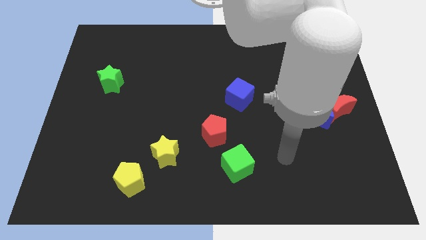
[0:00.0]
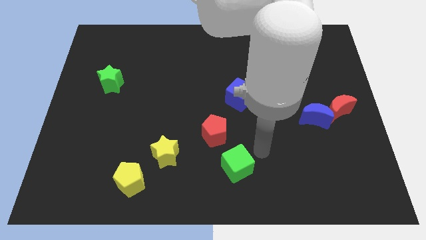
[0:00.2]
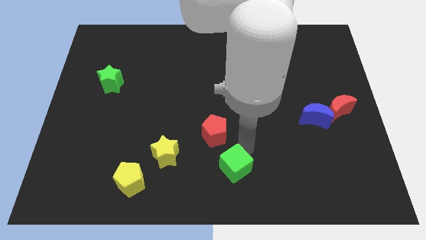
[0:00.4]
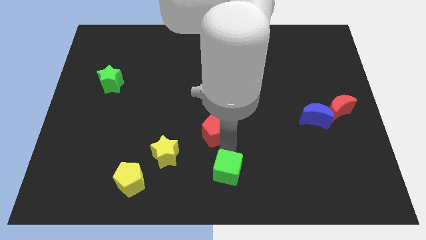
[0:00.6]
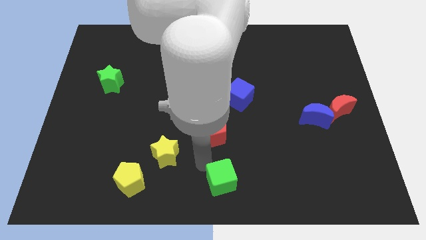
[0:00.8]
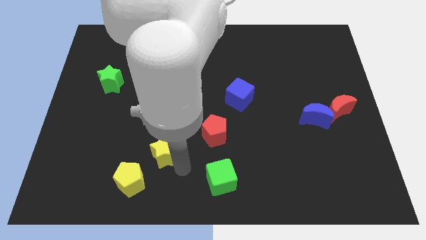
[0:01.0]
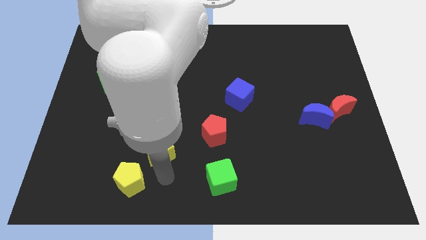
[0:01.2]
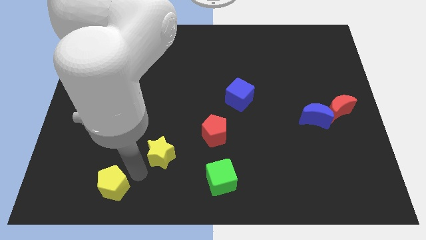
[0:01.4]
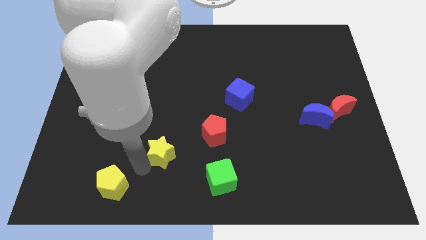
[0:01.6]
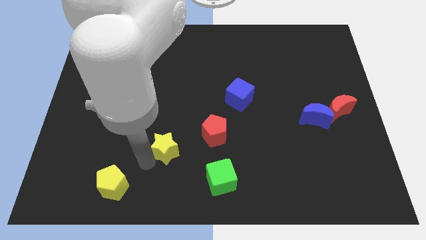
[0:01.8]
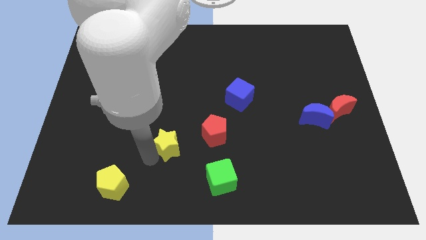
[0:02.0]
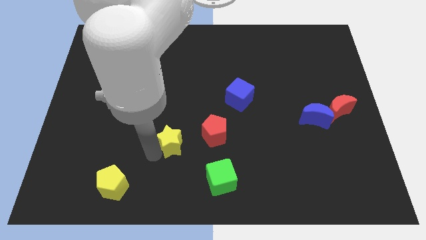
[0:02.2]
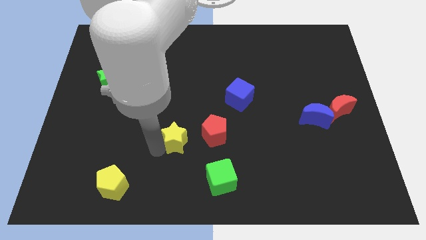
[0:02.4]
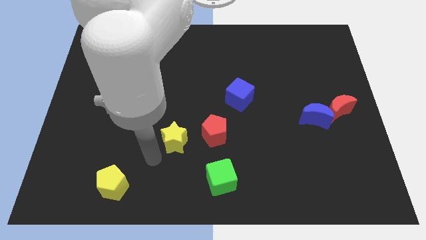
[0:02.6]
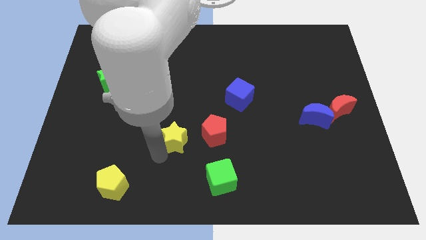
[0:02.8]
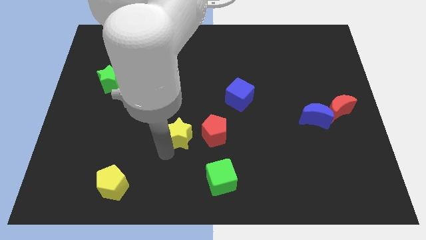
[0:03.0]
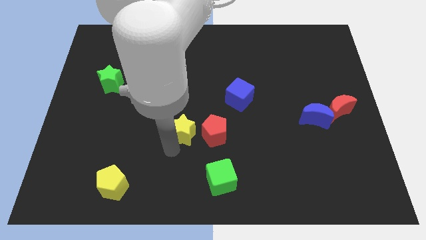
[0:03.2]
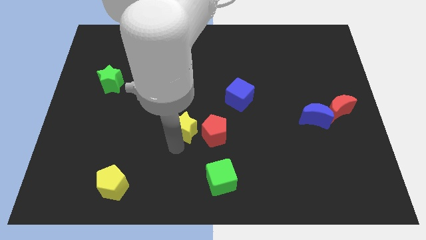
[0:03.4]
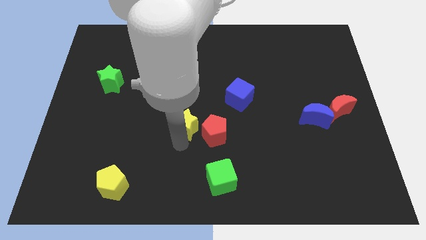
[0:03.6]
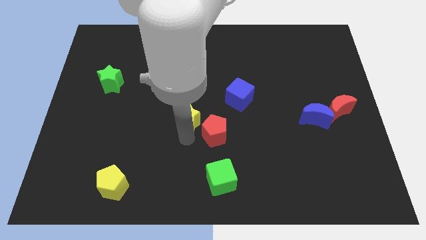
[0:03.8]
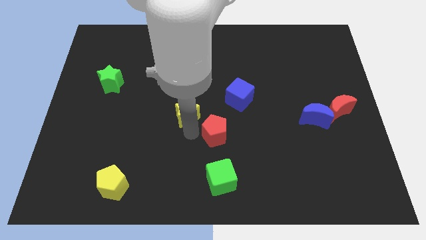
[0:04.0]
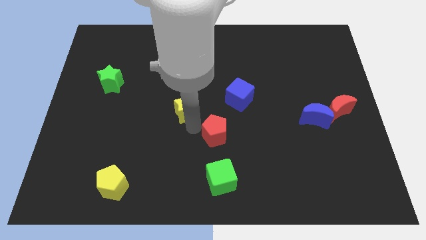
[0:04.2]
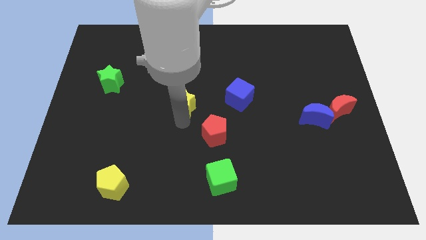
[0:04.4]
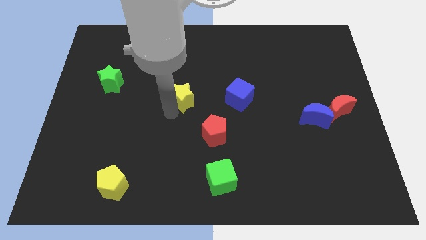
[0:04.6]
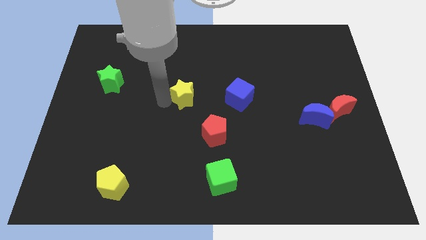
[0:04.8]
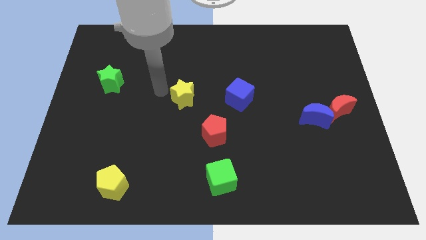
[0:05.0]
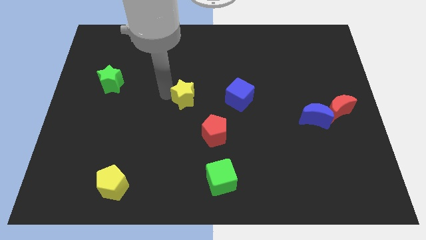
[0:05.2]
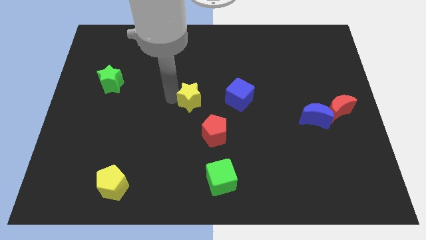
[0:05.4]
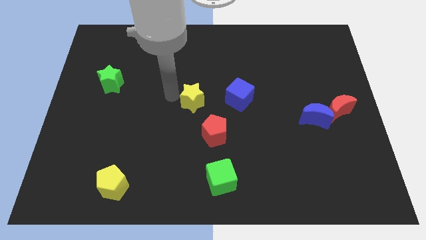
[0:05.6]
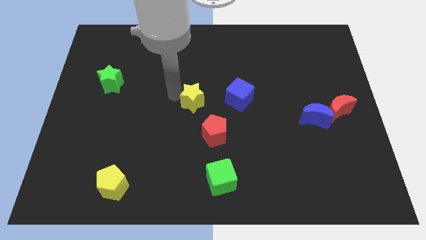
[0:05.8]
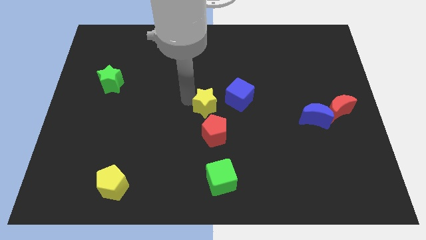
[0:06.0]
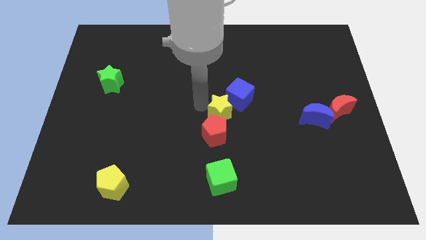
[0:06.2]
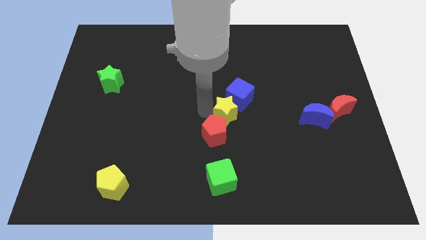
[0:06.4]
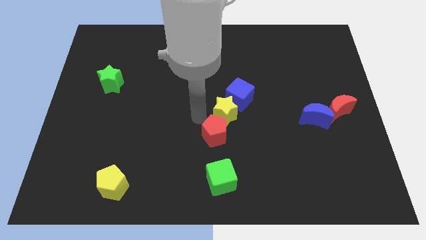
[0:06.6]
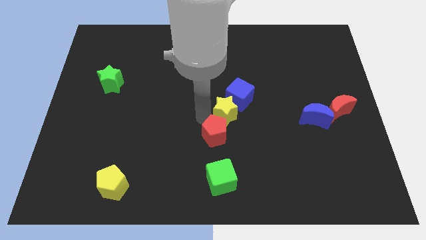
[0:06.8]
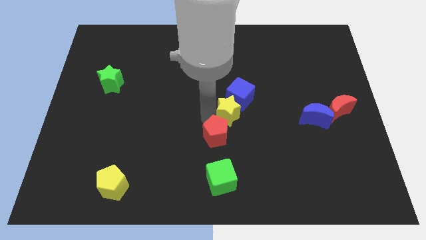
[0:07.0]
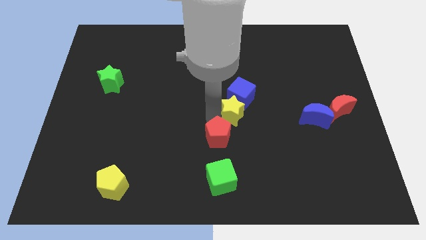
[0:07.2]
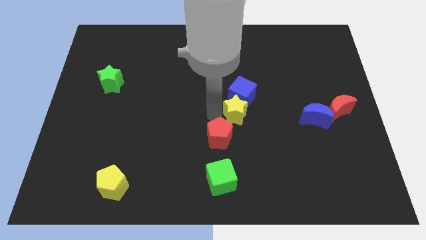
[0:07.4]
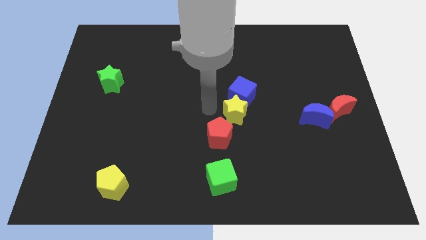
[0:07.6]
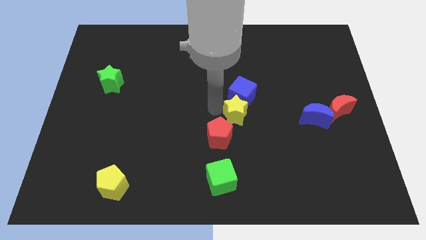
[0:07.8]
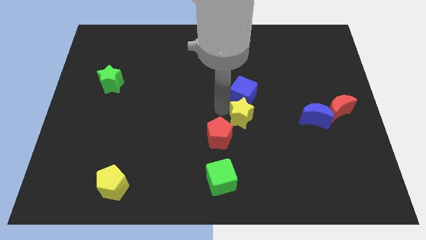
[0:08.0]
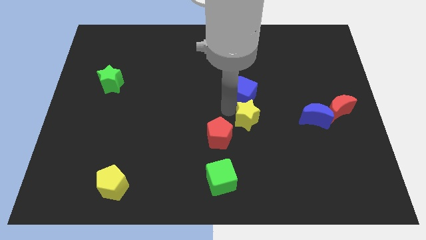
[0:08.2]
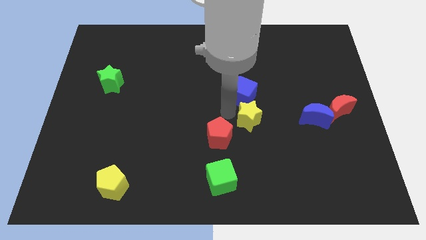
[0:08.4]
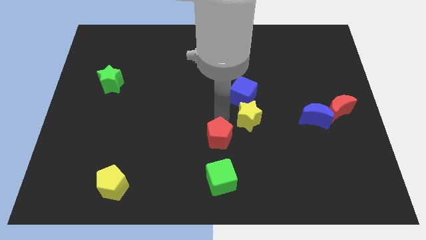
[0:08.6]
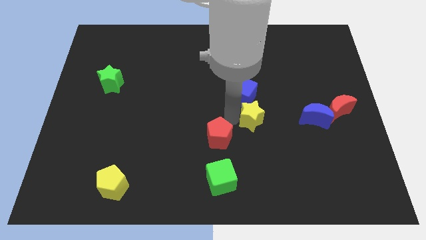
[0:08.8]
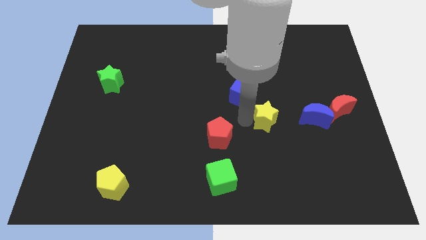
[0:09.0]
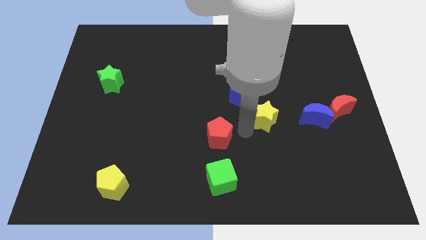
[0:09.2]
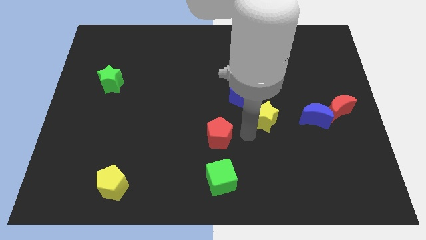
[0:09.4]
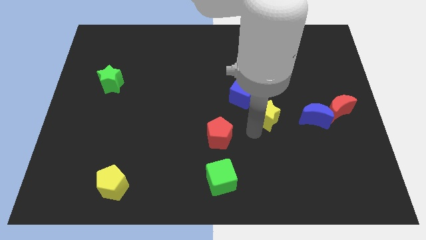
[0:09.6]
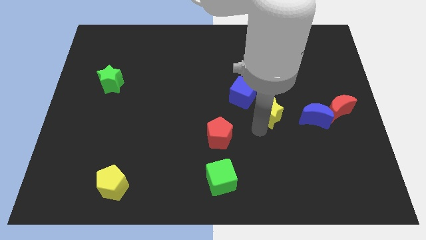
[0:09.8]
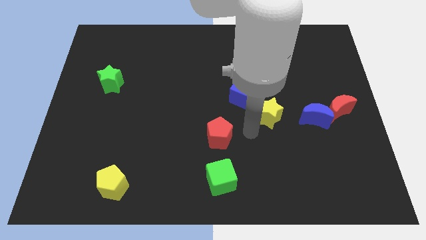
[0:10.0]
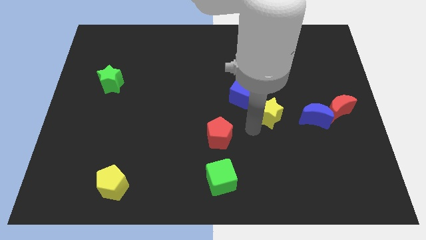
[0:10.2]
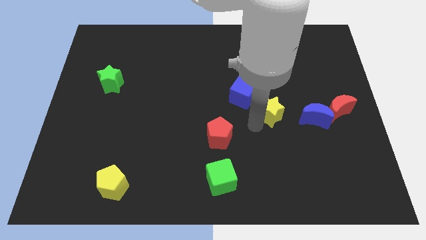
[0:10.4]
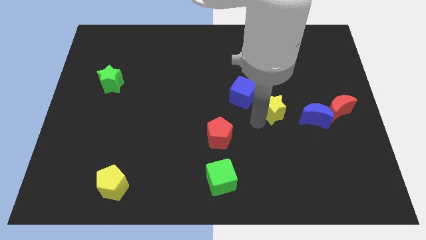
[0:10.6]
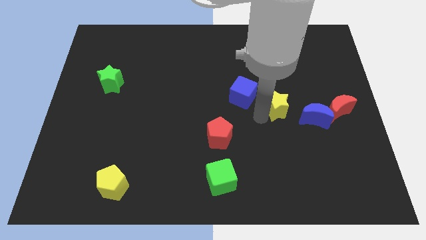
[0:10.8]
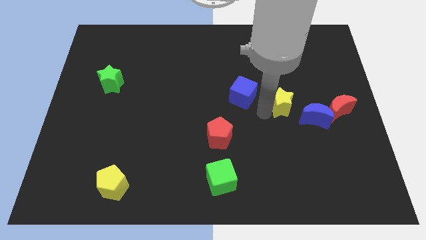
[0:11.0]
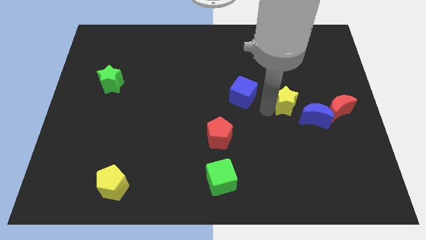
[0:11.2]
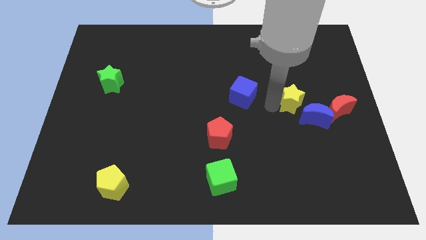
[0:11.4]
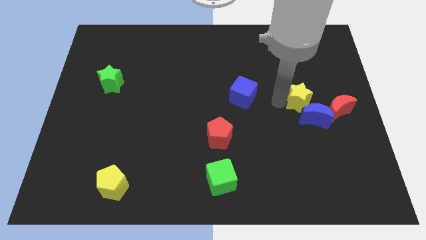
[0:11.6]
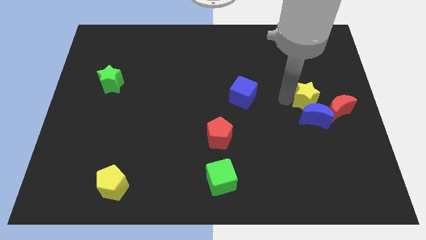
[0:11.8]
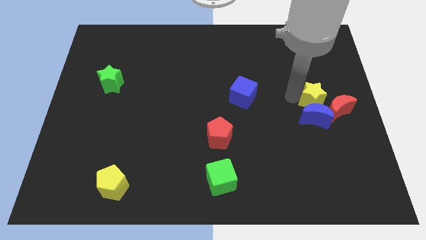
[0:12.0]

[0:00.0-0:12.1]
slide the yellow star close to the red moon
